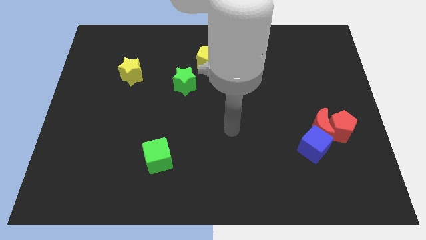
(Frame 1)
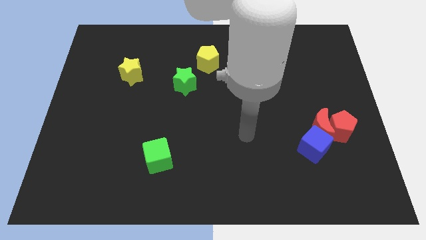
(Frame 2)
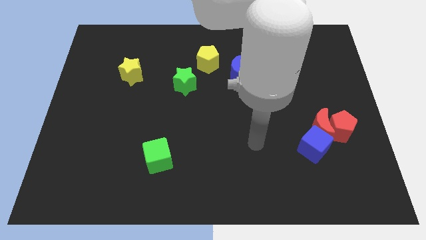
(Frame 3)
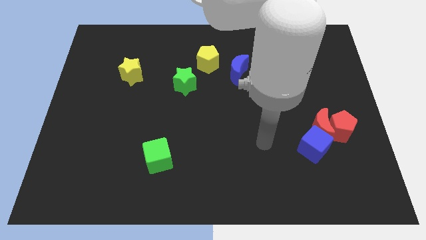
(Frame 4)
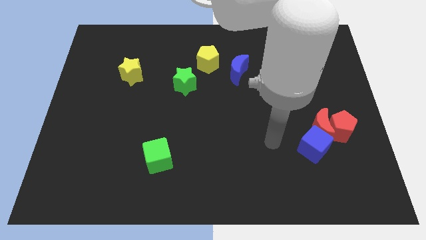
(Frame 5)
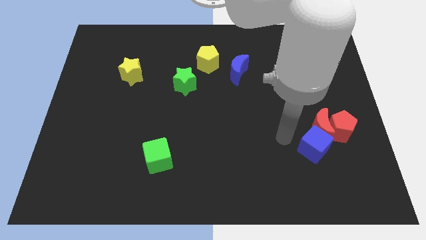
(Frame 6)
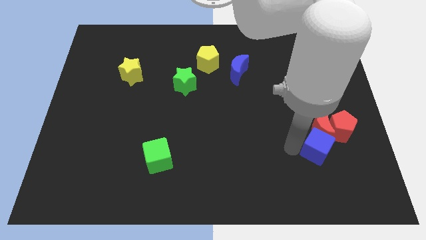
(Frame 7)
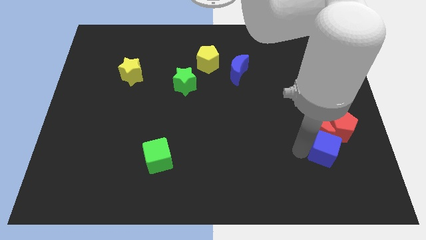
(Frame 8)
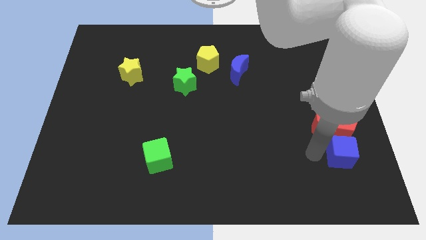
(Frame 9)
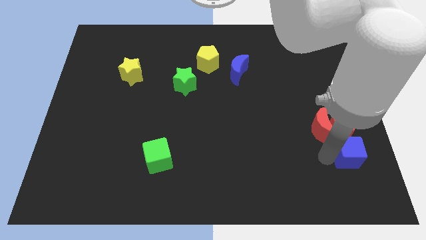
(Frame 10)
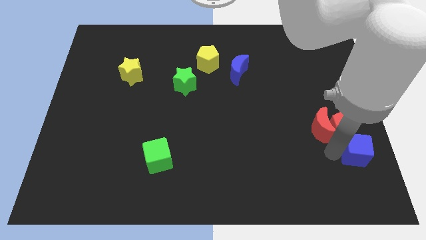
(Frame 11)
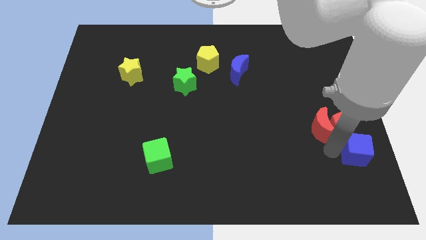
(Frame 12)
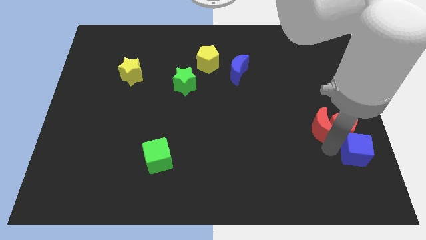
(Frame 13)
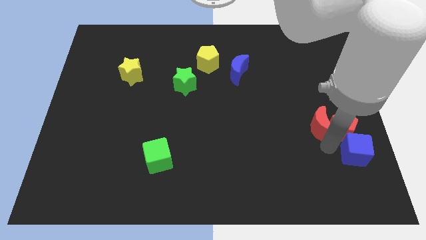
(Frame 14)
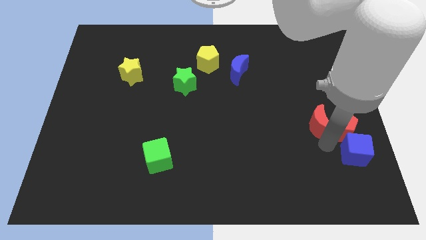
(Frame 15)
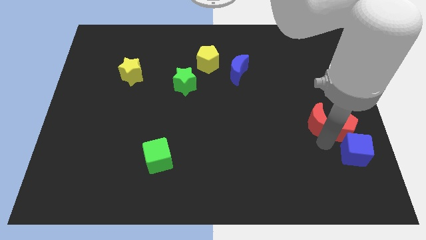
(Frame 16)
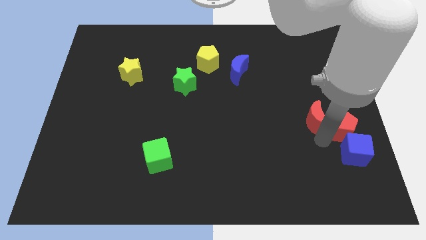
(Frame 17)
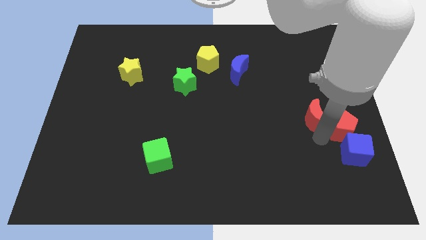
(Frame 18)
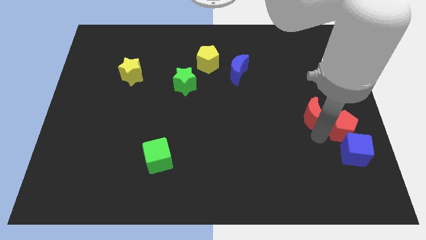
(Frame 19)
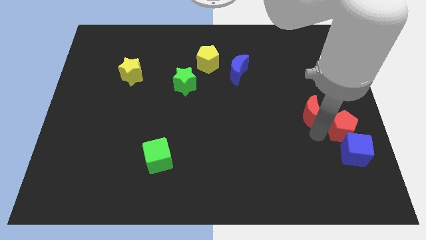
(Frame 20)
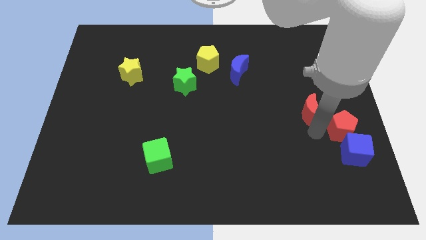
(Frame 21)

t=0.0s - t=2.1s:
separate the red moon from the red pentagon and blue cube

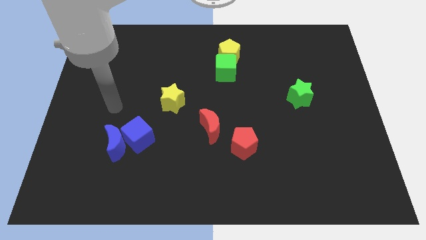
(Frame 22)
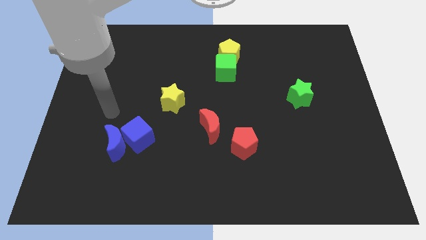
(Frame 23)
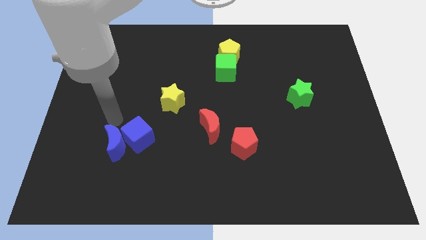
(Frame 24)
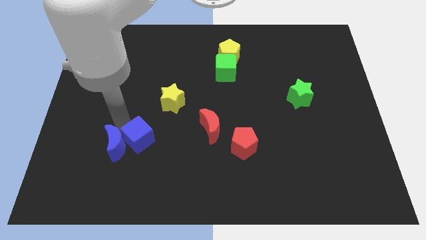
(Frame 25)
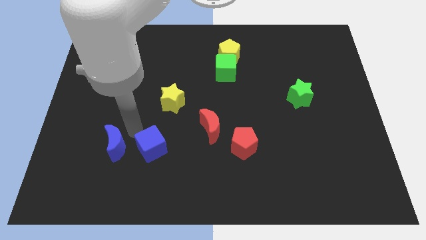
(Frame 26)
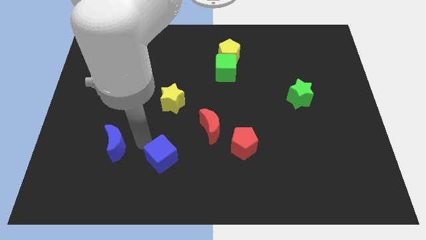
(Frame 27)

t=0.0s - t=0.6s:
pull the blue moon apart from the blue cube

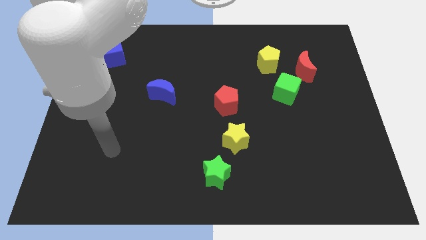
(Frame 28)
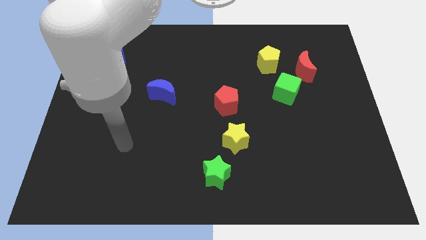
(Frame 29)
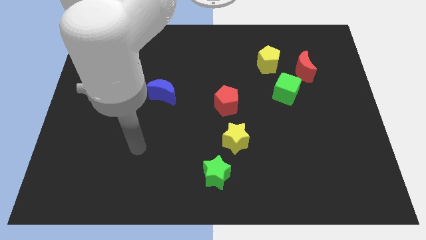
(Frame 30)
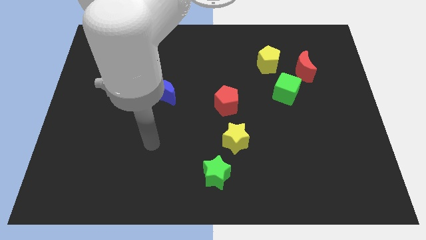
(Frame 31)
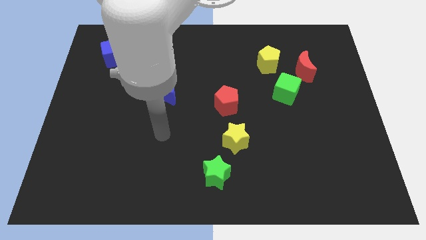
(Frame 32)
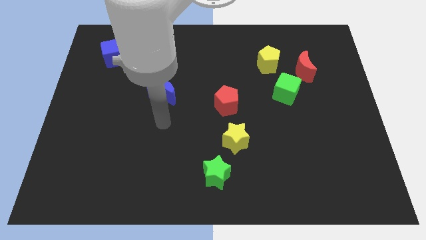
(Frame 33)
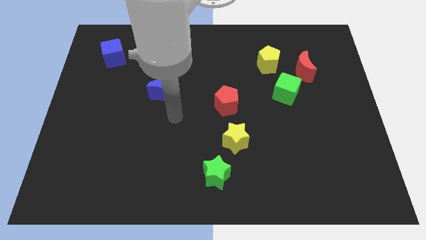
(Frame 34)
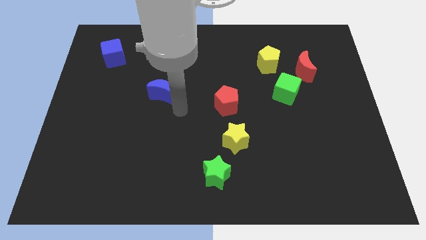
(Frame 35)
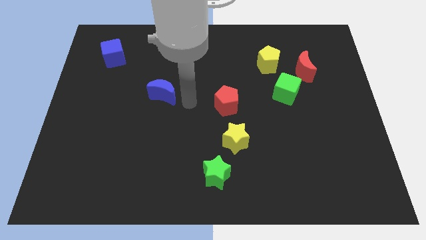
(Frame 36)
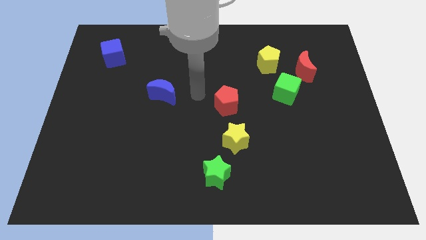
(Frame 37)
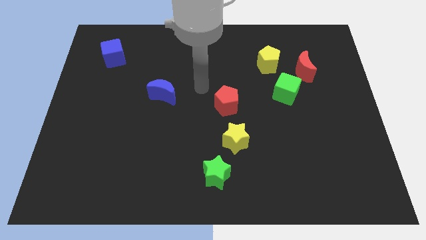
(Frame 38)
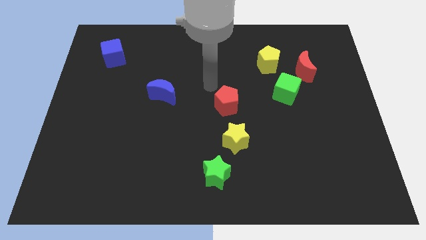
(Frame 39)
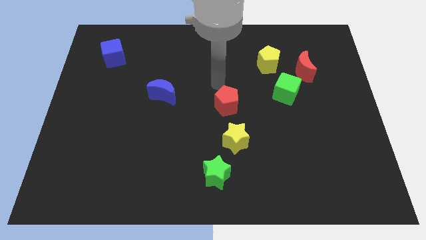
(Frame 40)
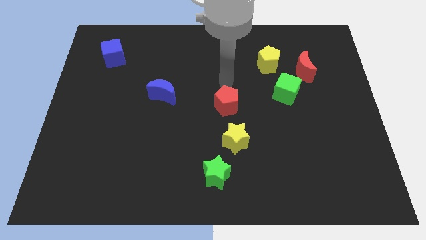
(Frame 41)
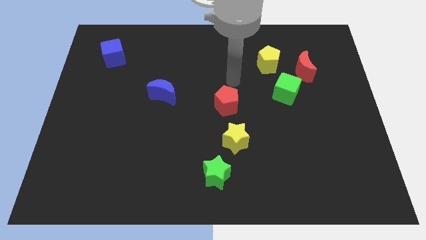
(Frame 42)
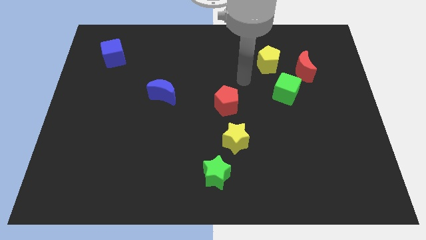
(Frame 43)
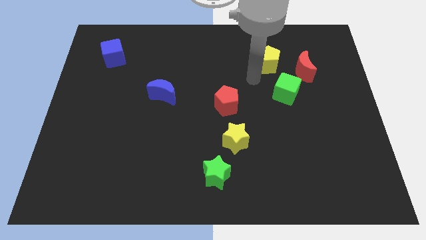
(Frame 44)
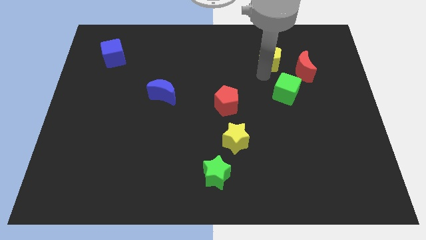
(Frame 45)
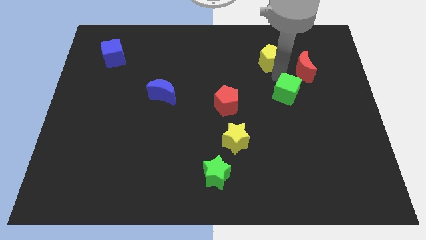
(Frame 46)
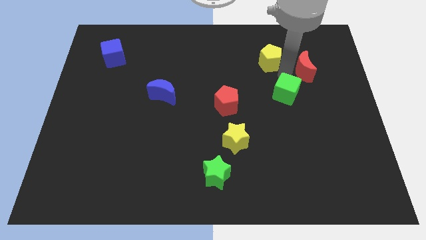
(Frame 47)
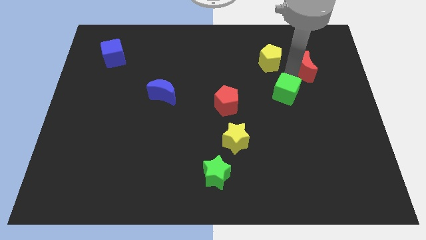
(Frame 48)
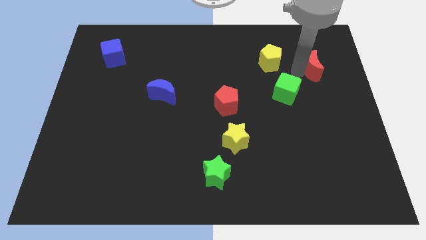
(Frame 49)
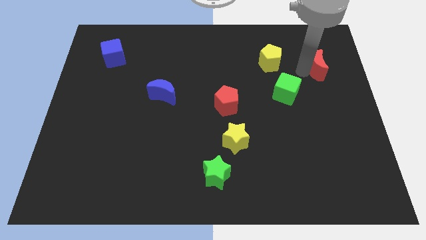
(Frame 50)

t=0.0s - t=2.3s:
separate the red moon from the yellow pentagon and green cube

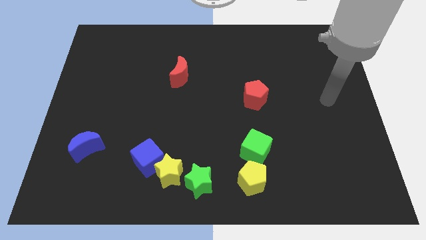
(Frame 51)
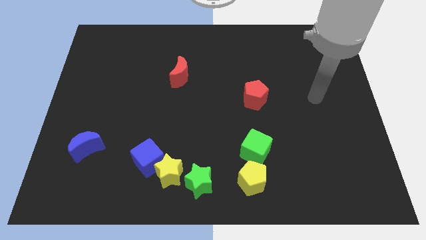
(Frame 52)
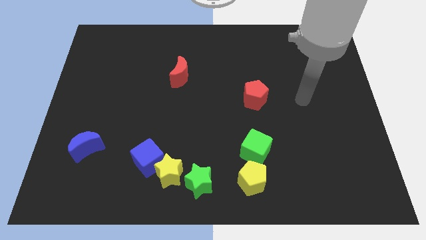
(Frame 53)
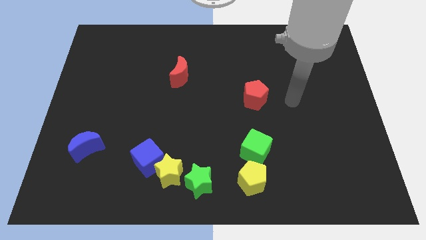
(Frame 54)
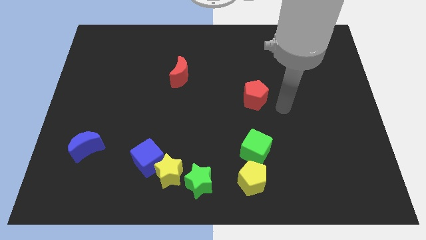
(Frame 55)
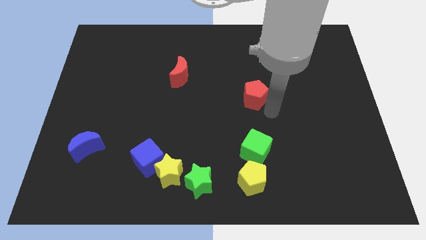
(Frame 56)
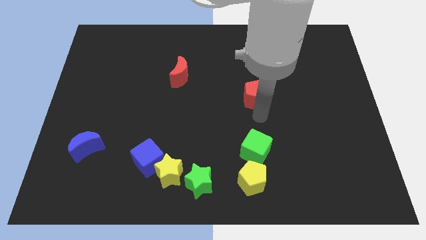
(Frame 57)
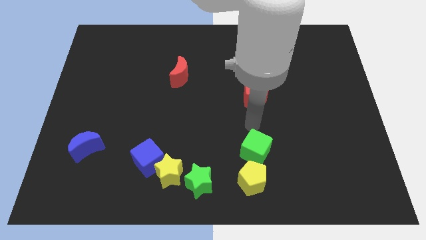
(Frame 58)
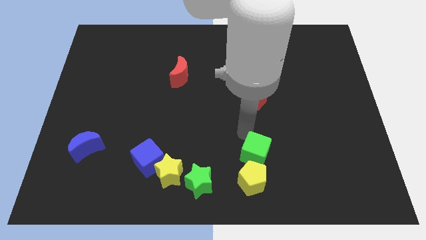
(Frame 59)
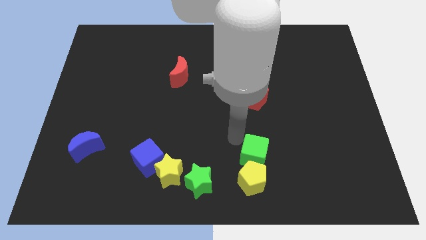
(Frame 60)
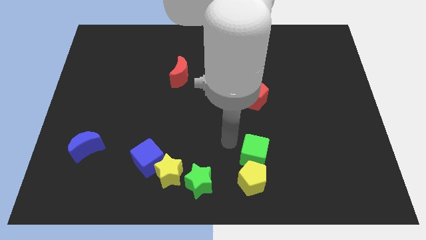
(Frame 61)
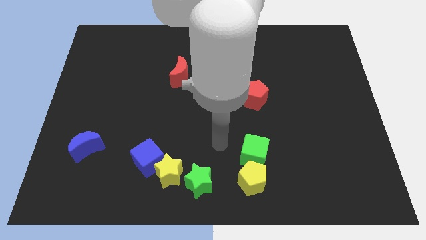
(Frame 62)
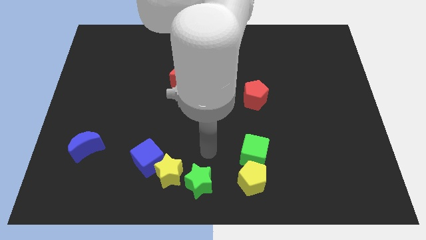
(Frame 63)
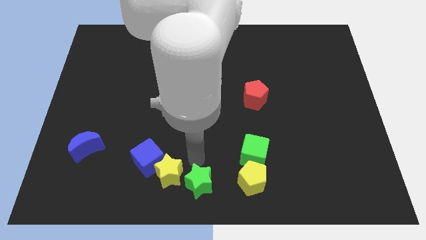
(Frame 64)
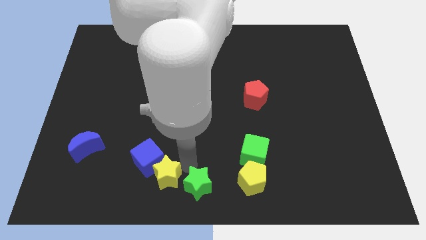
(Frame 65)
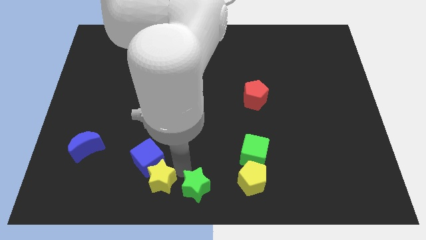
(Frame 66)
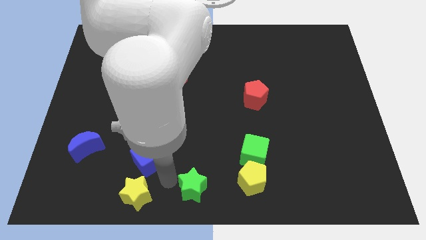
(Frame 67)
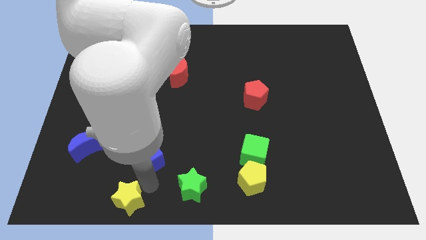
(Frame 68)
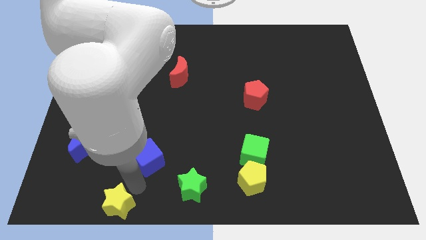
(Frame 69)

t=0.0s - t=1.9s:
move the blue cube away from the yellow star

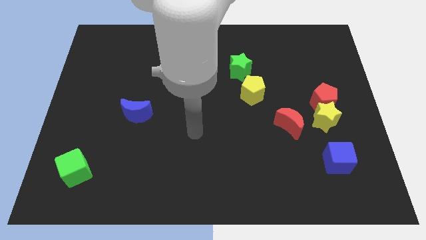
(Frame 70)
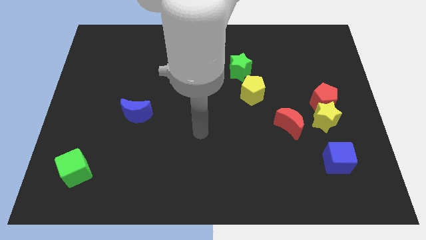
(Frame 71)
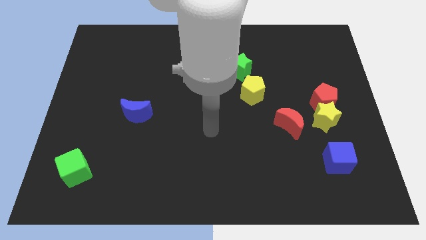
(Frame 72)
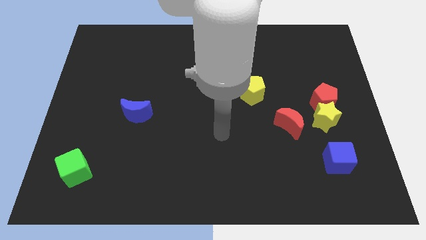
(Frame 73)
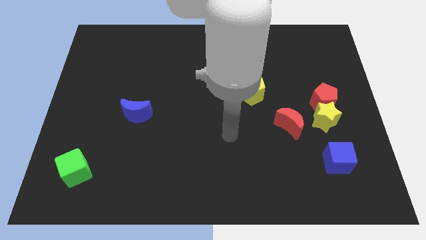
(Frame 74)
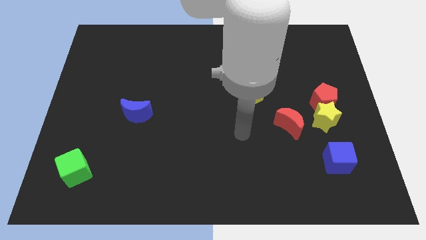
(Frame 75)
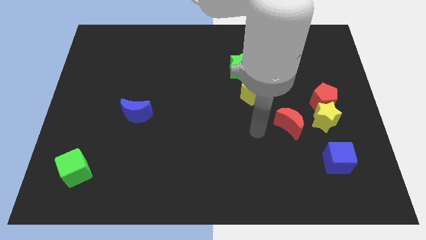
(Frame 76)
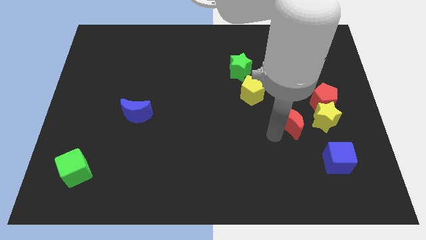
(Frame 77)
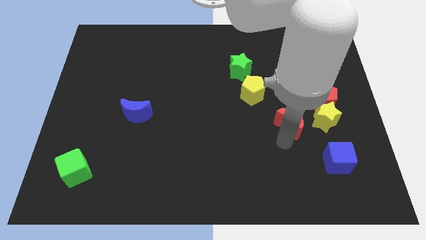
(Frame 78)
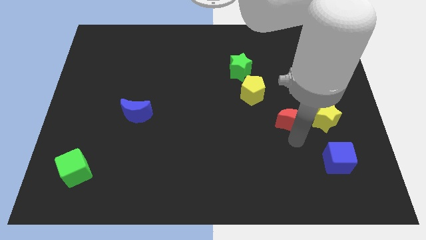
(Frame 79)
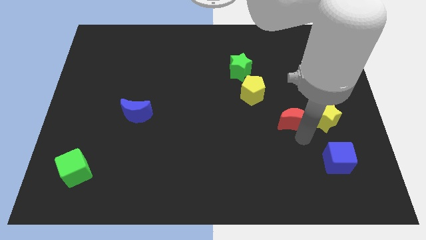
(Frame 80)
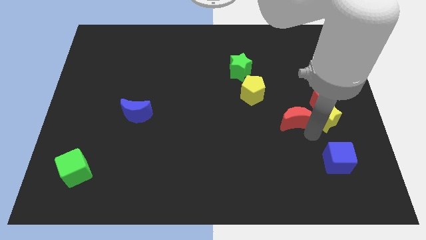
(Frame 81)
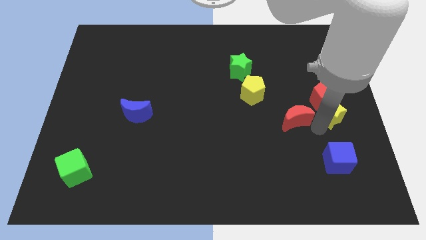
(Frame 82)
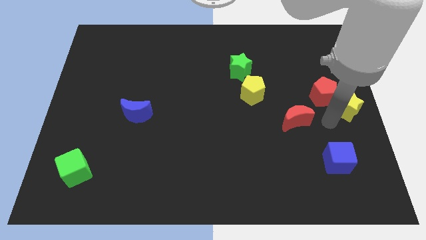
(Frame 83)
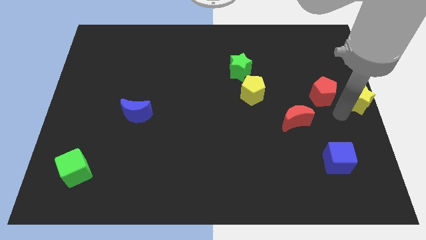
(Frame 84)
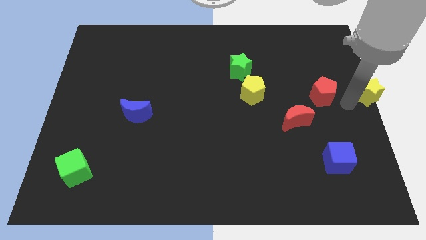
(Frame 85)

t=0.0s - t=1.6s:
move the red pentagon away from the yellow star

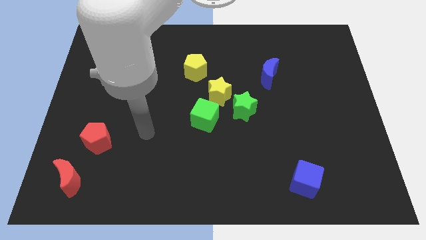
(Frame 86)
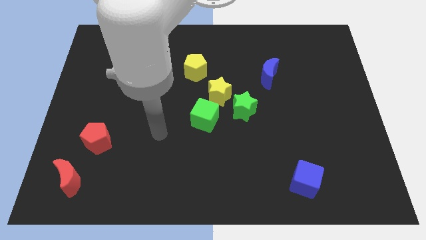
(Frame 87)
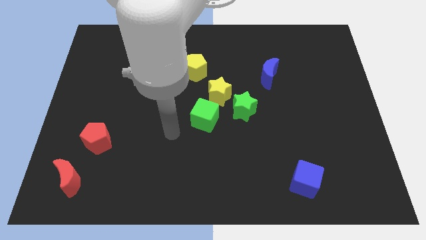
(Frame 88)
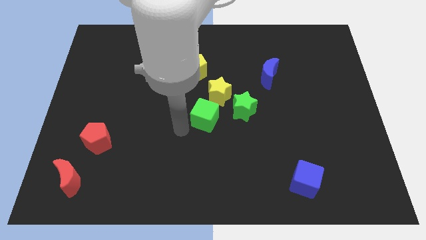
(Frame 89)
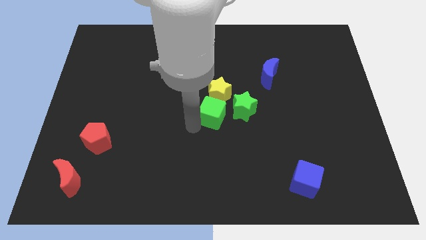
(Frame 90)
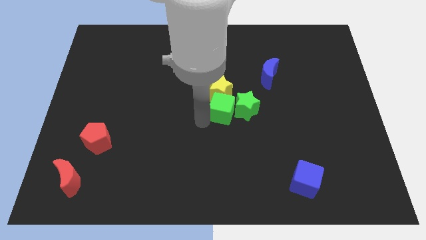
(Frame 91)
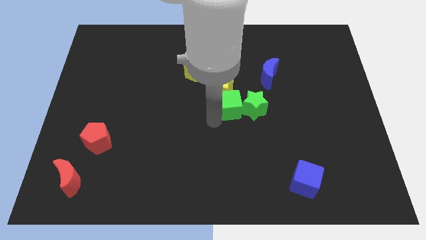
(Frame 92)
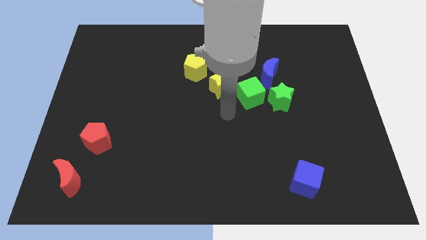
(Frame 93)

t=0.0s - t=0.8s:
separate the yellow star from the green star and green cube
